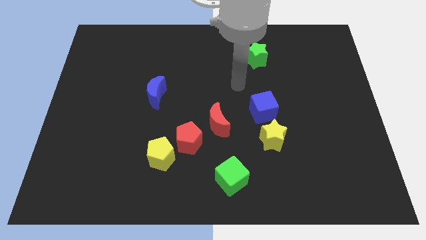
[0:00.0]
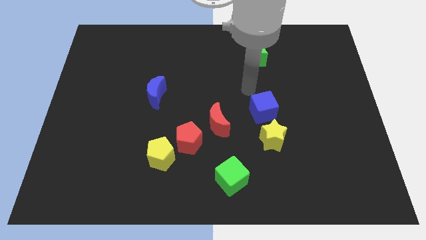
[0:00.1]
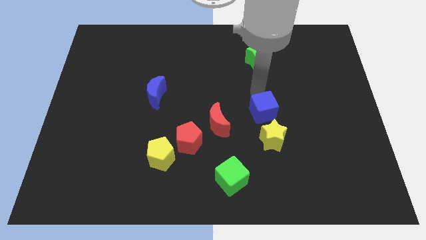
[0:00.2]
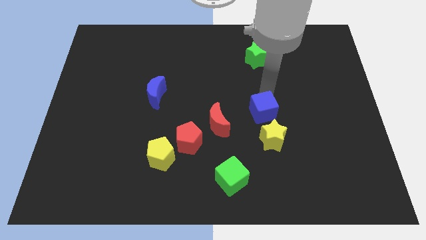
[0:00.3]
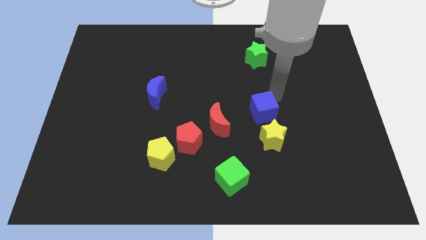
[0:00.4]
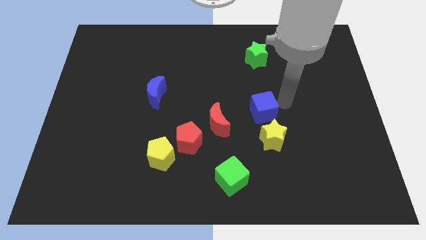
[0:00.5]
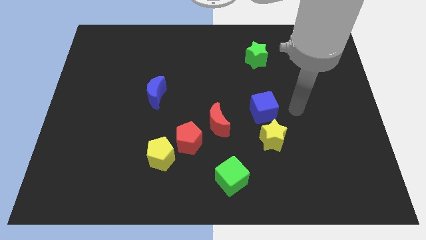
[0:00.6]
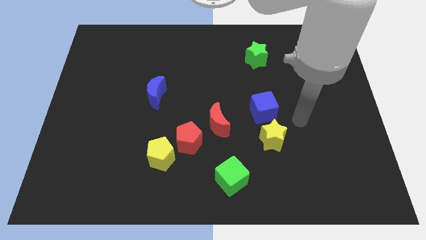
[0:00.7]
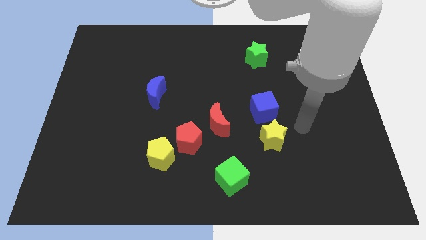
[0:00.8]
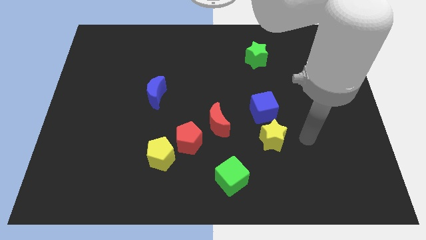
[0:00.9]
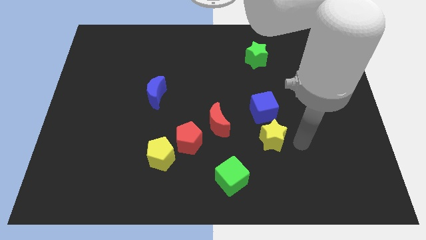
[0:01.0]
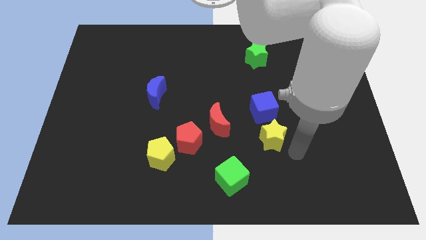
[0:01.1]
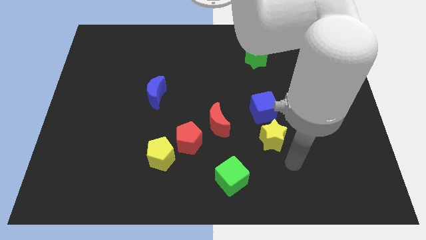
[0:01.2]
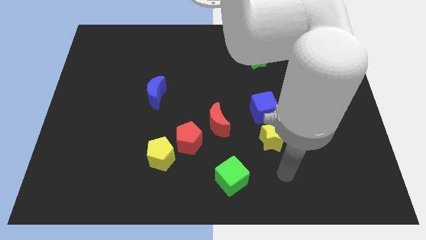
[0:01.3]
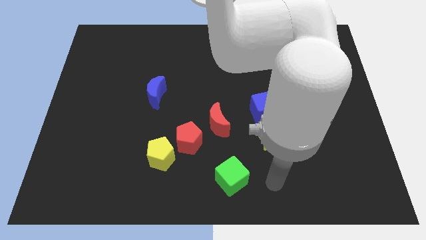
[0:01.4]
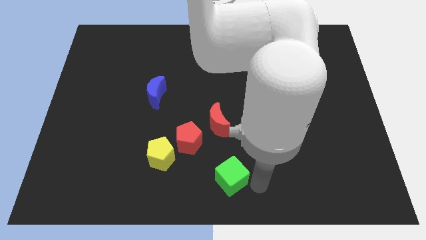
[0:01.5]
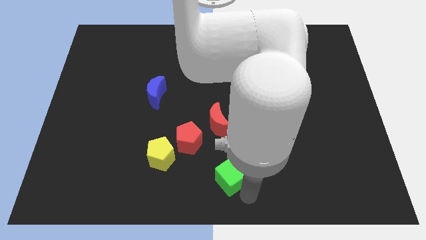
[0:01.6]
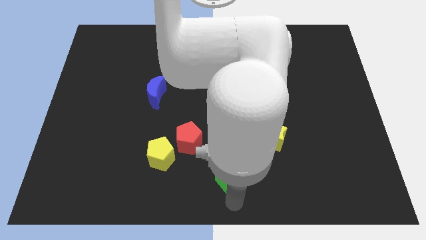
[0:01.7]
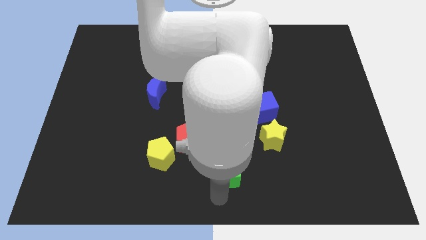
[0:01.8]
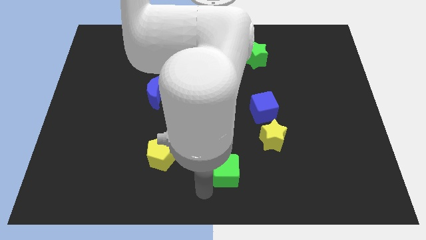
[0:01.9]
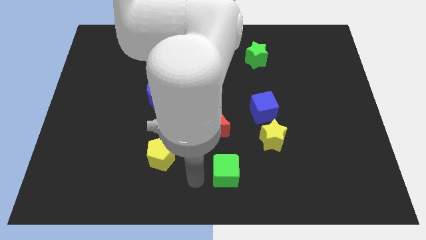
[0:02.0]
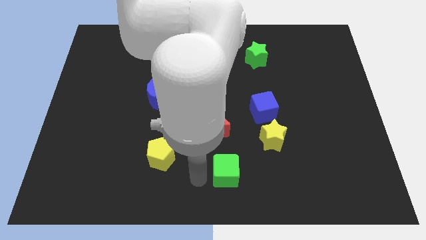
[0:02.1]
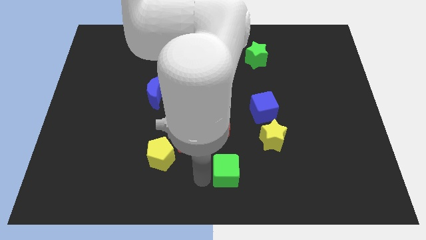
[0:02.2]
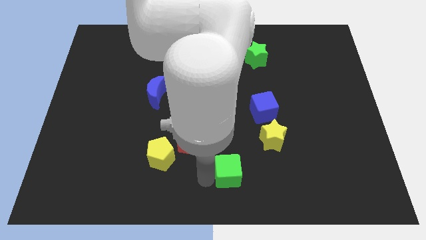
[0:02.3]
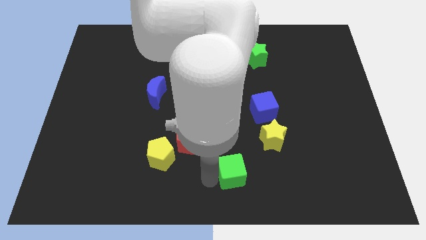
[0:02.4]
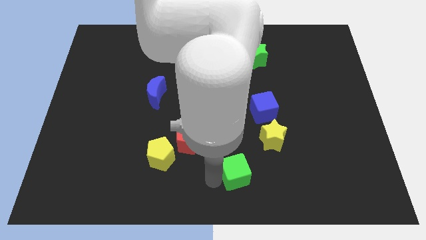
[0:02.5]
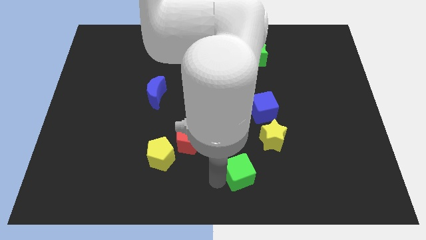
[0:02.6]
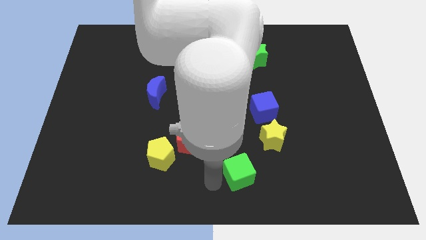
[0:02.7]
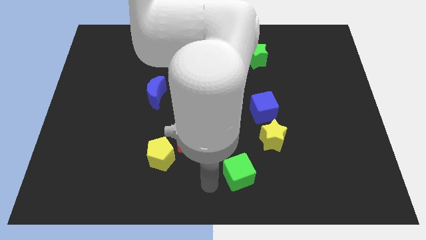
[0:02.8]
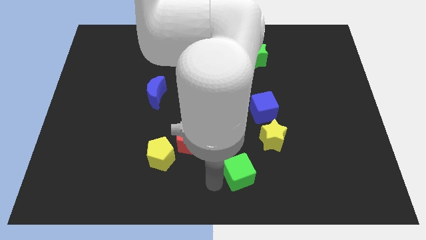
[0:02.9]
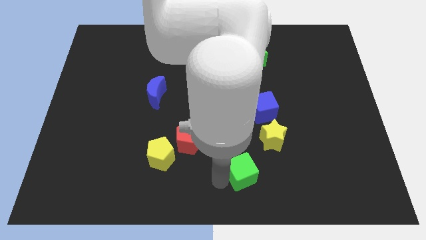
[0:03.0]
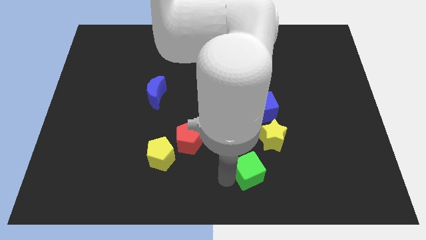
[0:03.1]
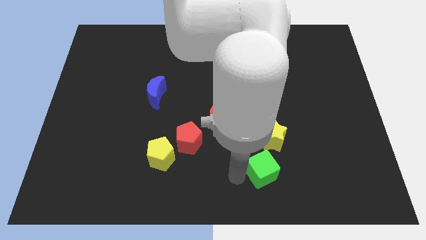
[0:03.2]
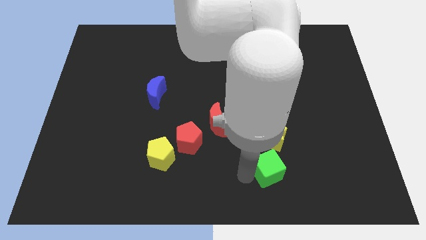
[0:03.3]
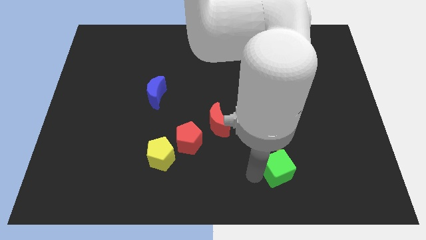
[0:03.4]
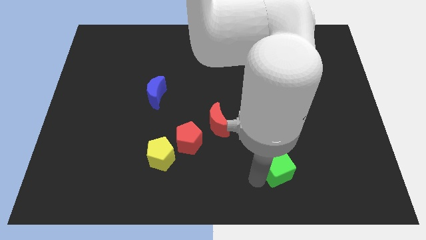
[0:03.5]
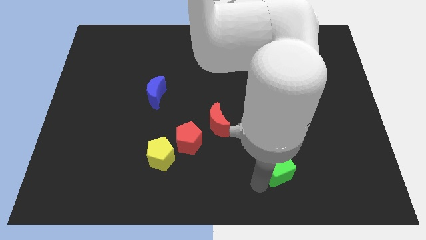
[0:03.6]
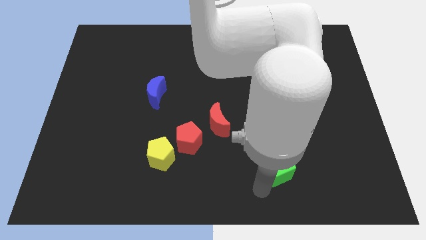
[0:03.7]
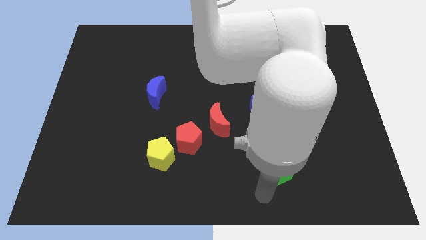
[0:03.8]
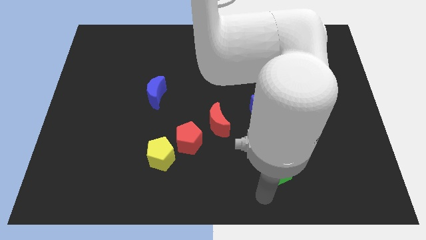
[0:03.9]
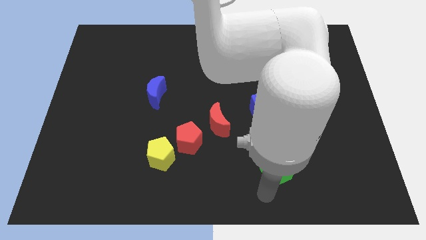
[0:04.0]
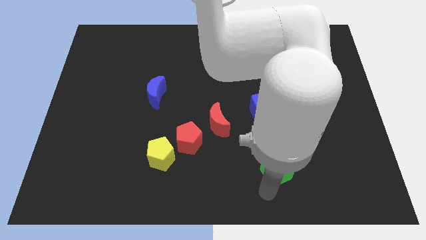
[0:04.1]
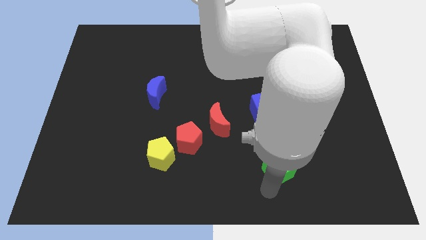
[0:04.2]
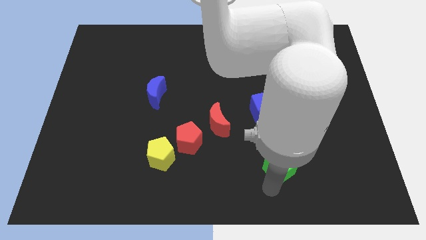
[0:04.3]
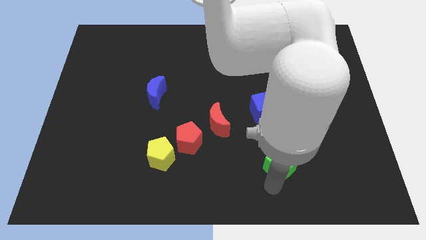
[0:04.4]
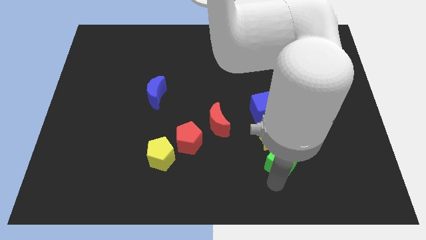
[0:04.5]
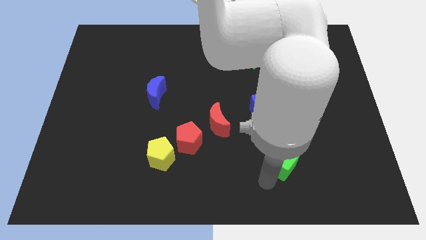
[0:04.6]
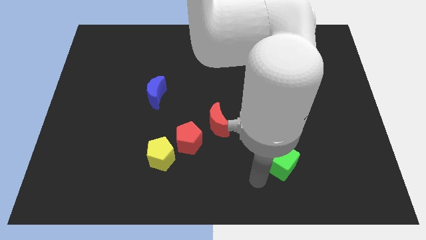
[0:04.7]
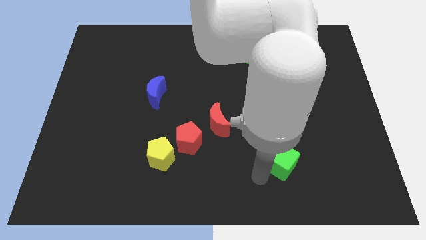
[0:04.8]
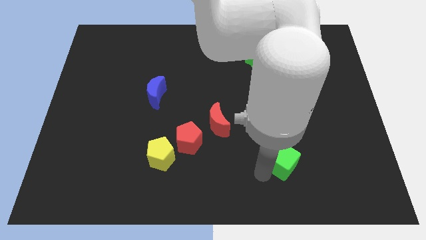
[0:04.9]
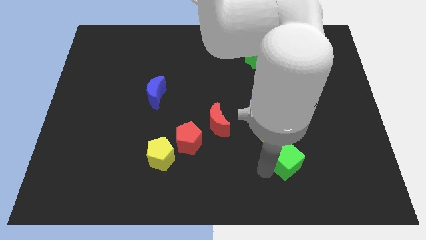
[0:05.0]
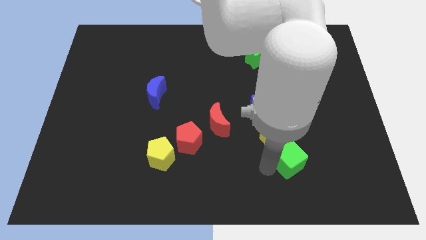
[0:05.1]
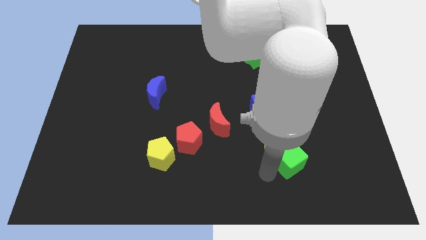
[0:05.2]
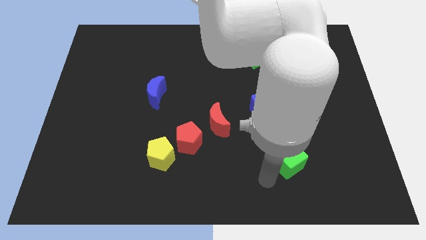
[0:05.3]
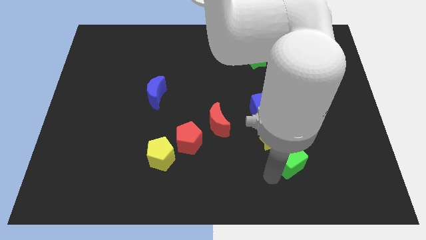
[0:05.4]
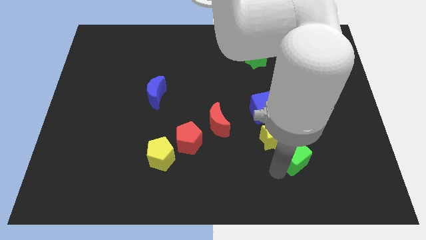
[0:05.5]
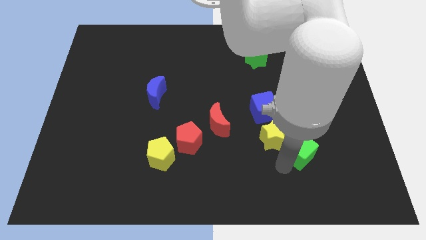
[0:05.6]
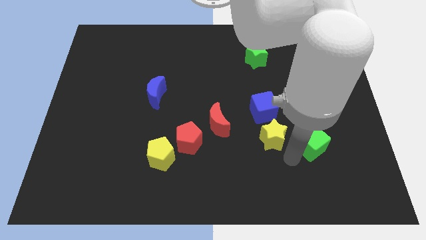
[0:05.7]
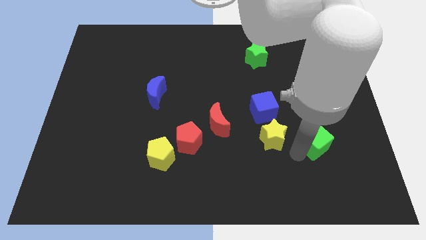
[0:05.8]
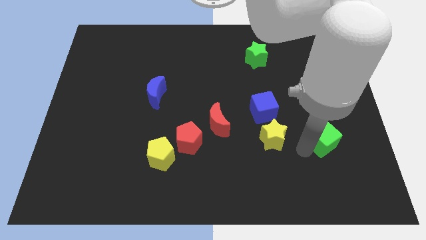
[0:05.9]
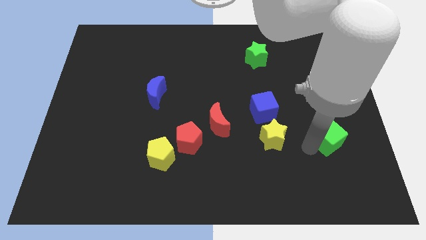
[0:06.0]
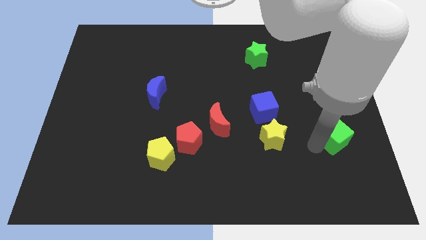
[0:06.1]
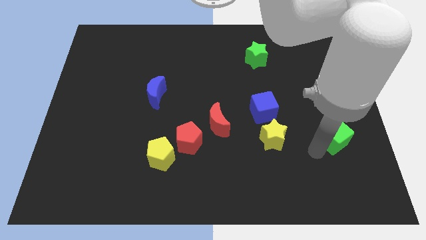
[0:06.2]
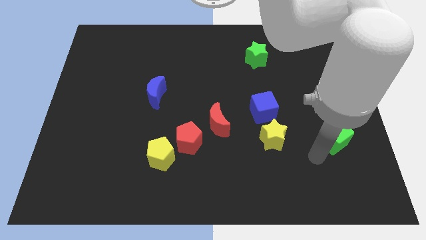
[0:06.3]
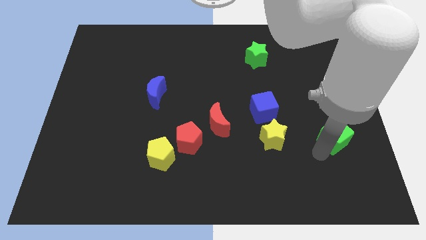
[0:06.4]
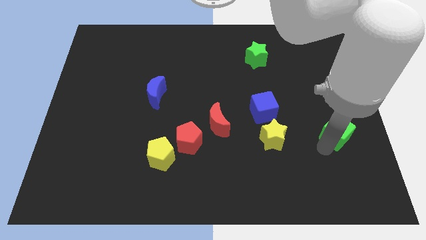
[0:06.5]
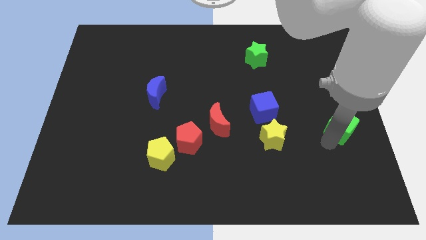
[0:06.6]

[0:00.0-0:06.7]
put the green cube to the right side

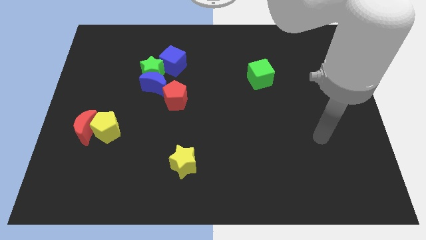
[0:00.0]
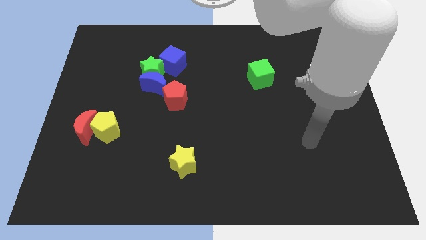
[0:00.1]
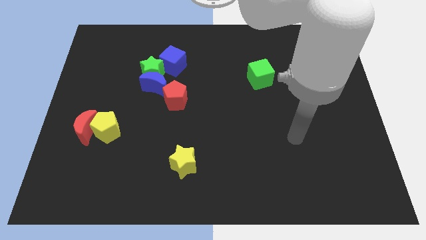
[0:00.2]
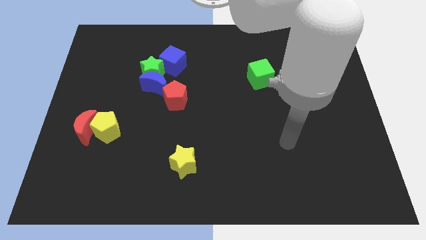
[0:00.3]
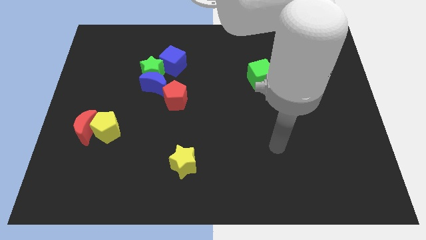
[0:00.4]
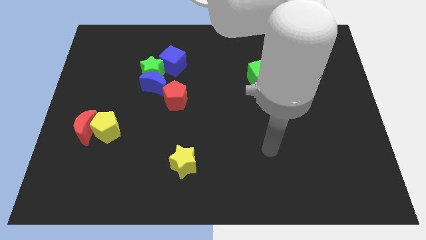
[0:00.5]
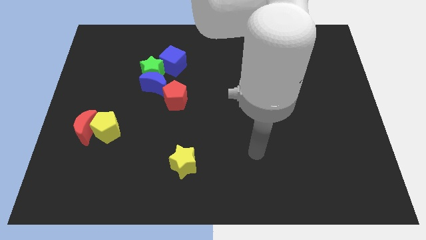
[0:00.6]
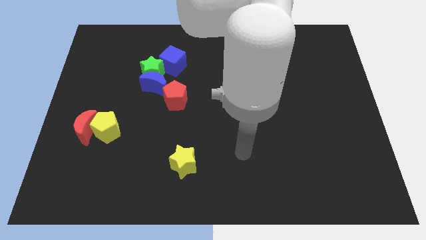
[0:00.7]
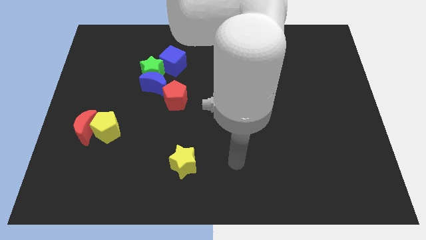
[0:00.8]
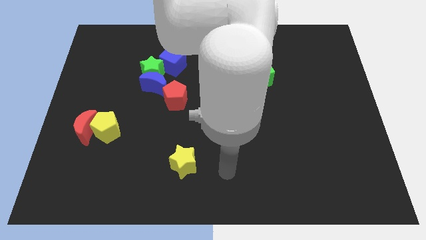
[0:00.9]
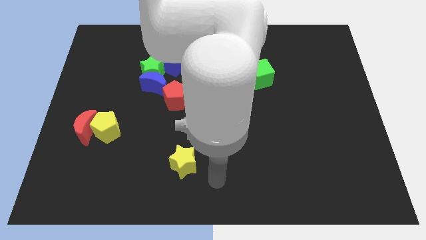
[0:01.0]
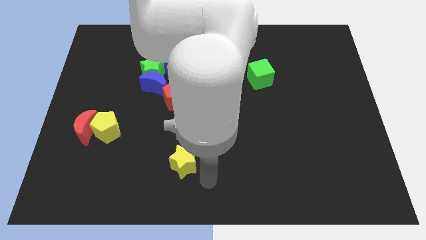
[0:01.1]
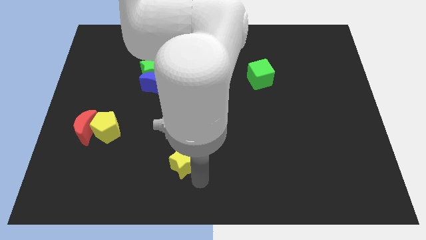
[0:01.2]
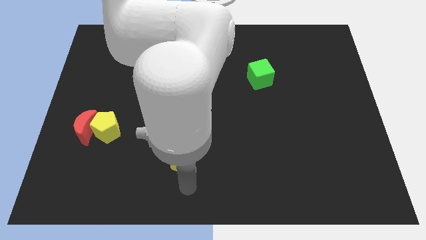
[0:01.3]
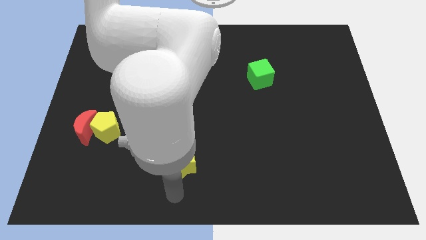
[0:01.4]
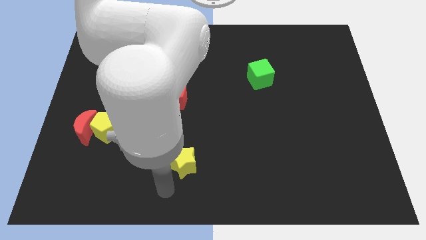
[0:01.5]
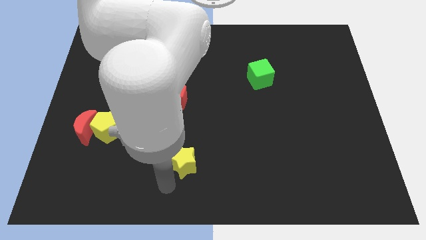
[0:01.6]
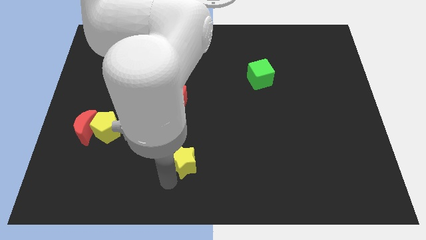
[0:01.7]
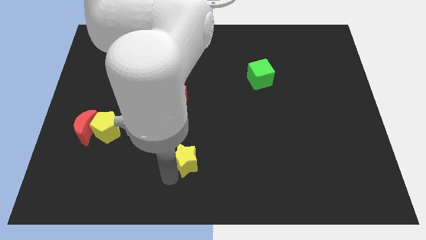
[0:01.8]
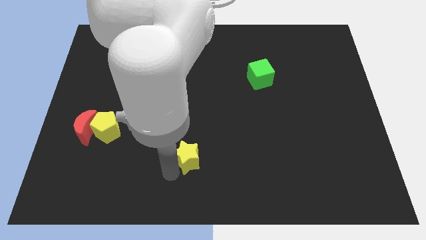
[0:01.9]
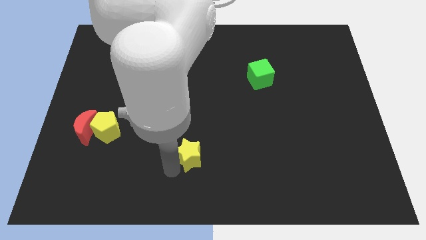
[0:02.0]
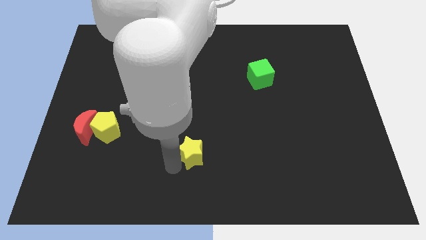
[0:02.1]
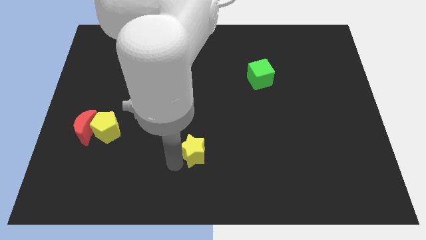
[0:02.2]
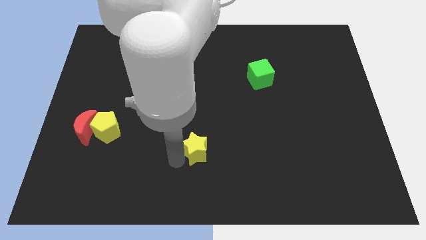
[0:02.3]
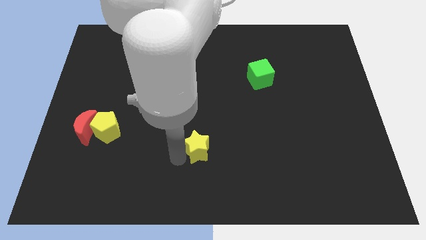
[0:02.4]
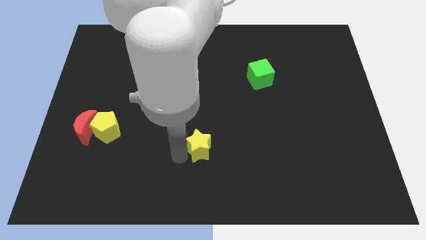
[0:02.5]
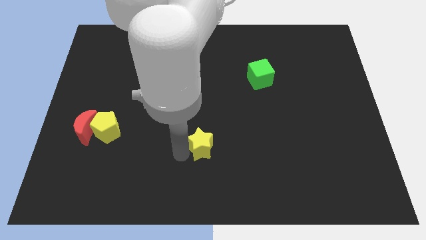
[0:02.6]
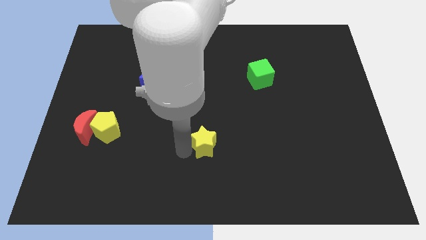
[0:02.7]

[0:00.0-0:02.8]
slide the yellow star to the middle of the board
